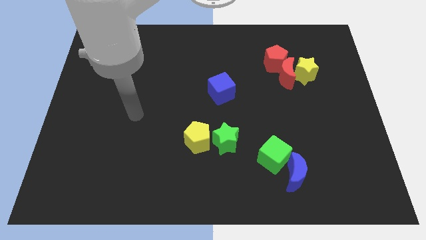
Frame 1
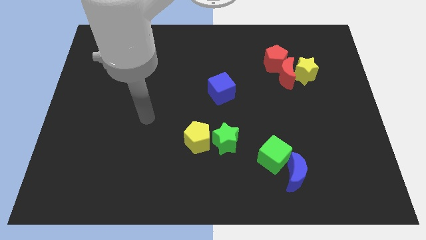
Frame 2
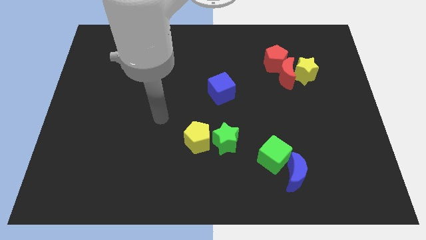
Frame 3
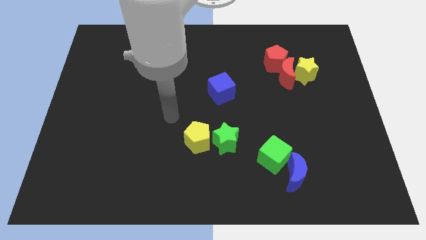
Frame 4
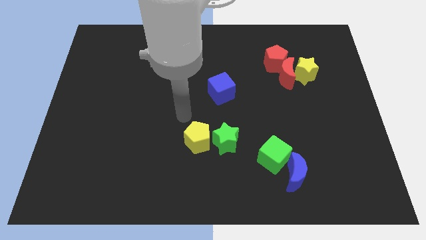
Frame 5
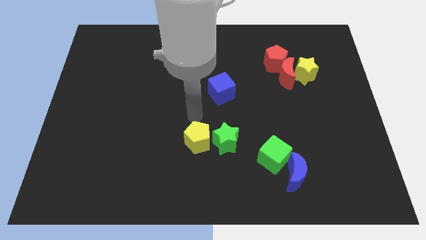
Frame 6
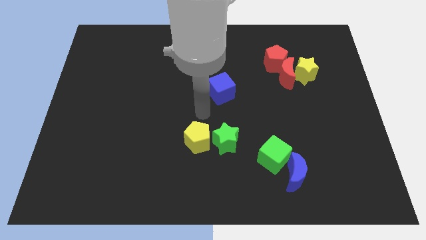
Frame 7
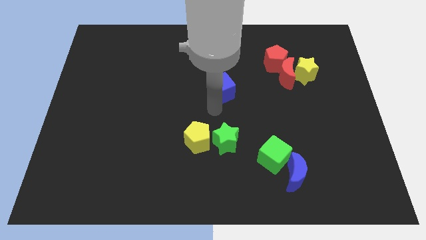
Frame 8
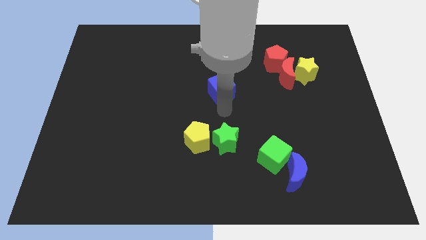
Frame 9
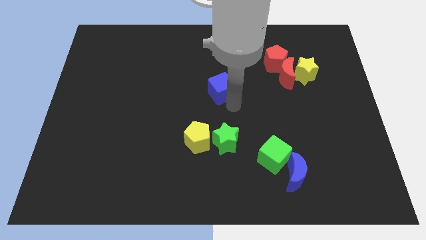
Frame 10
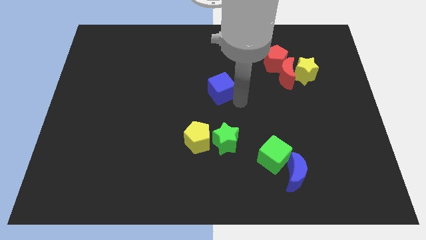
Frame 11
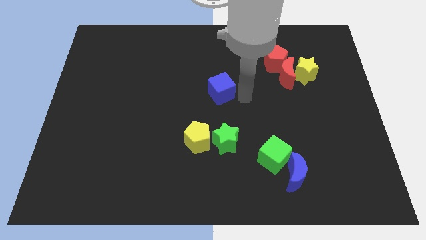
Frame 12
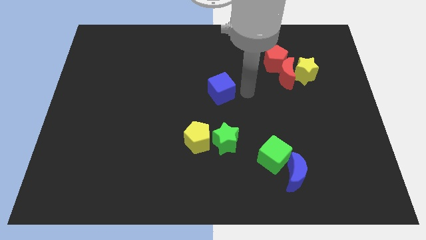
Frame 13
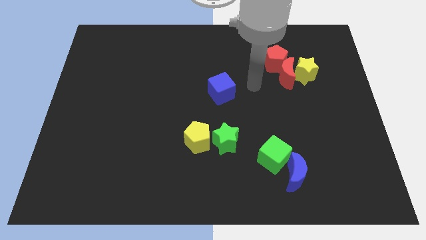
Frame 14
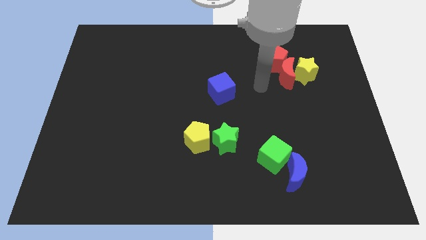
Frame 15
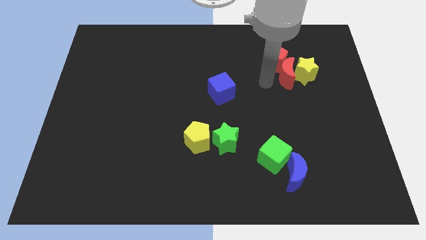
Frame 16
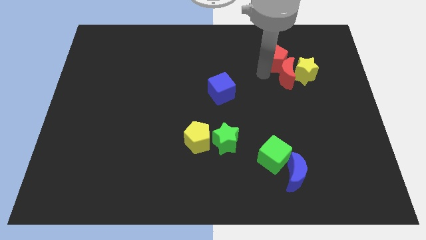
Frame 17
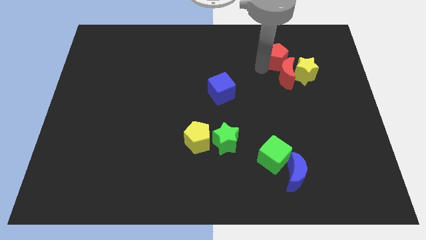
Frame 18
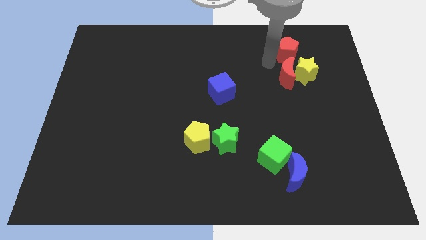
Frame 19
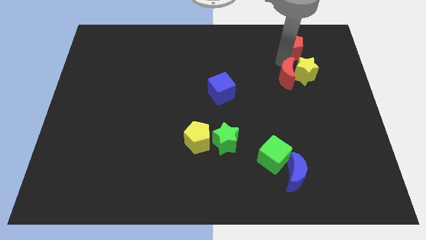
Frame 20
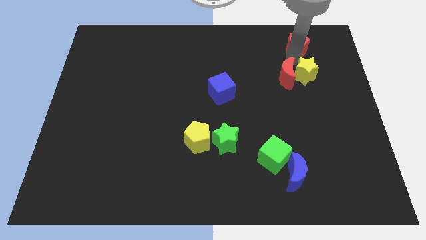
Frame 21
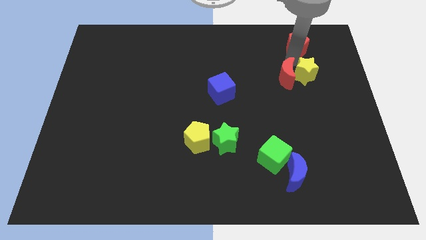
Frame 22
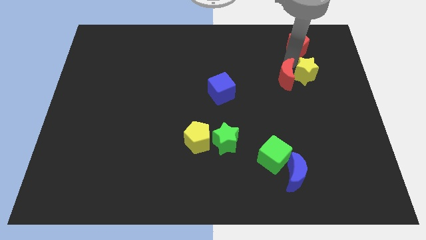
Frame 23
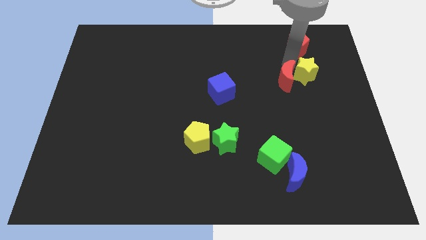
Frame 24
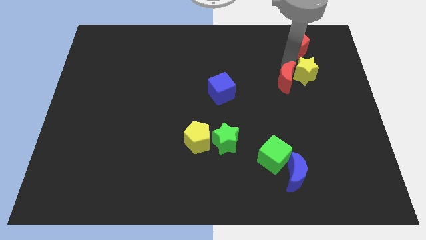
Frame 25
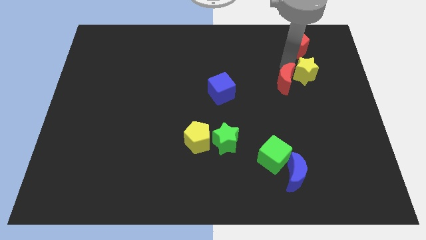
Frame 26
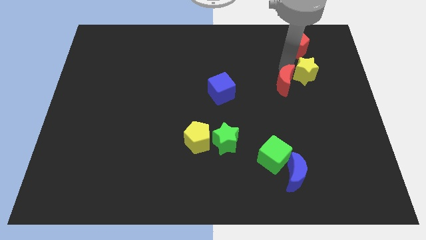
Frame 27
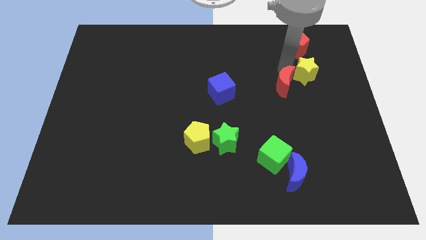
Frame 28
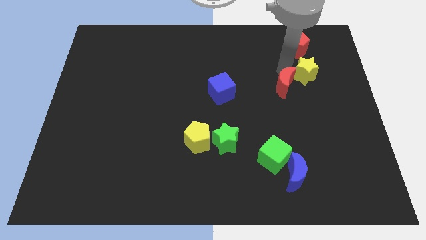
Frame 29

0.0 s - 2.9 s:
pull the red moon apart from the yellow star and red pentagon

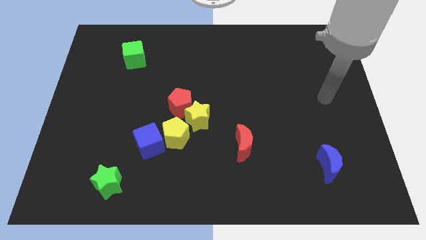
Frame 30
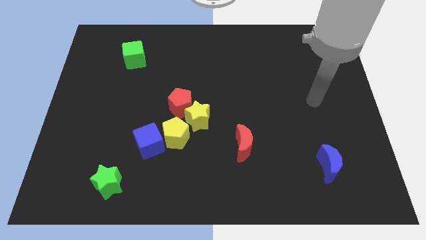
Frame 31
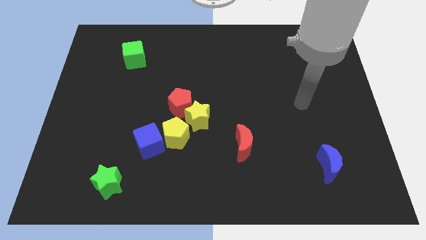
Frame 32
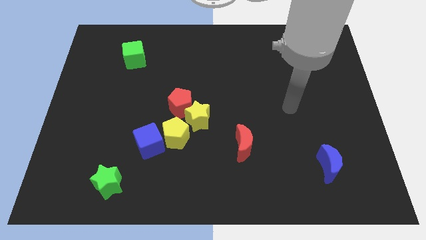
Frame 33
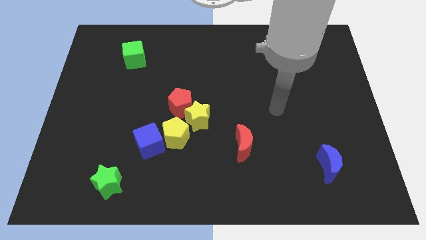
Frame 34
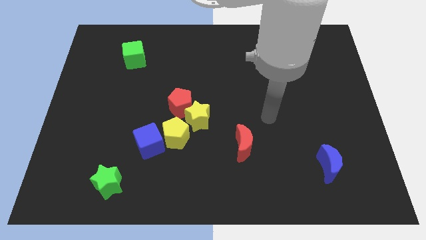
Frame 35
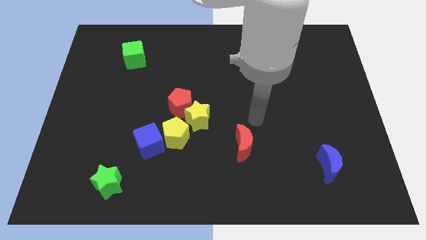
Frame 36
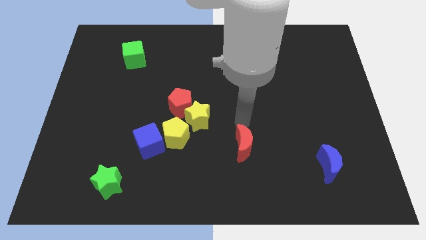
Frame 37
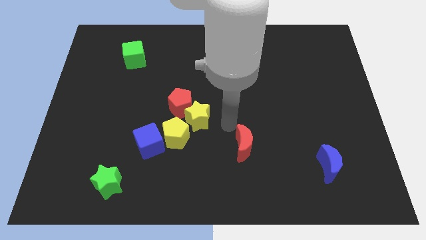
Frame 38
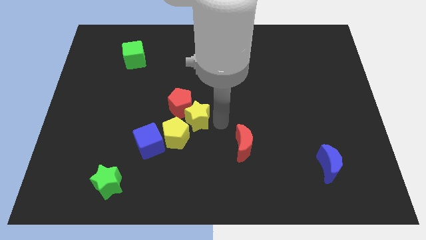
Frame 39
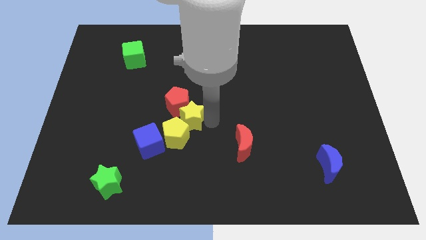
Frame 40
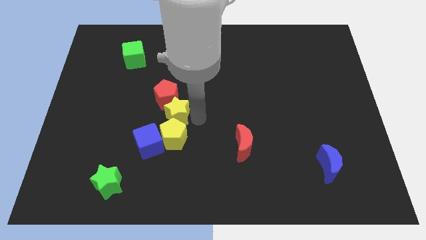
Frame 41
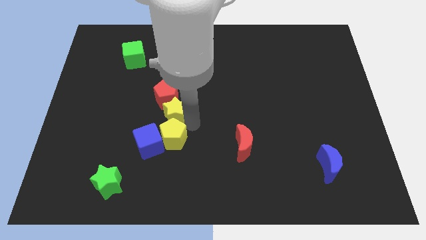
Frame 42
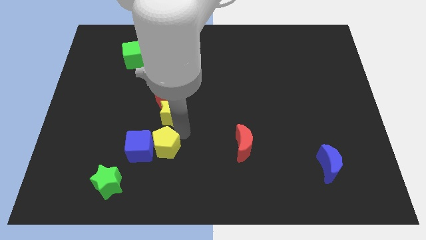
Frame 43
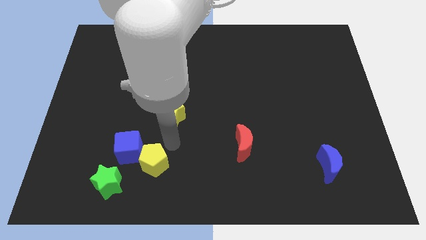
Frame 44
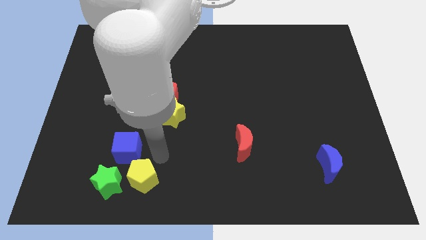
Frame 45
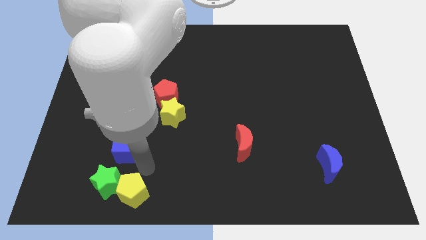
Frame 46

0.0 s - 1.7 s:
pull the blue cube apart from the yellow pentagon

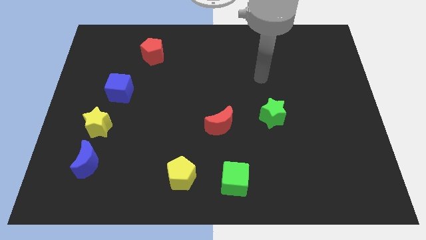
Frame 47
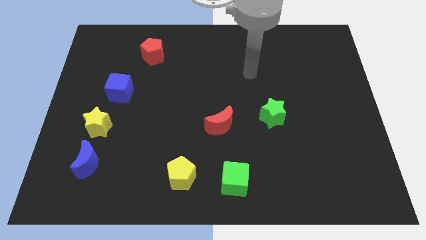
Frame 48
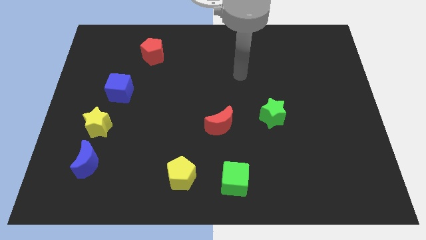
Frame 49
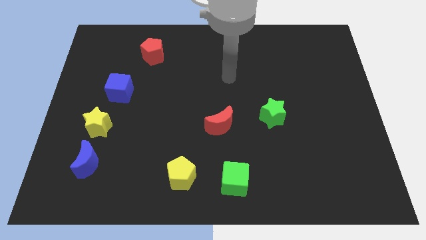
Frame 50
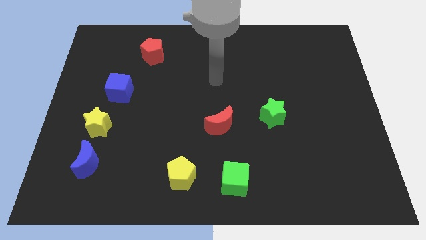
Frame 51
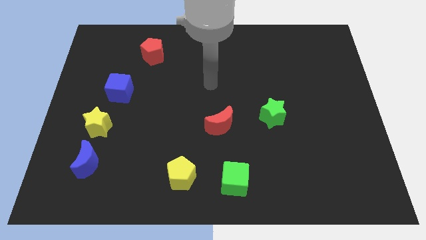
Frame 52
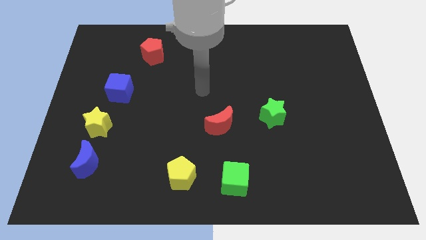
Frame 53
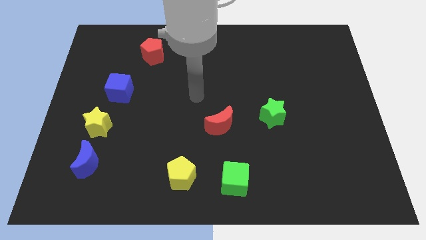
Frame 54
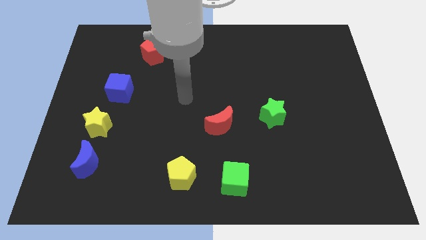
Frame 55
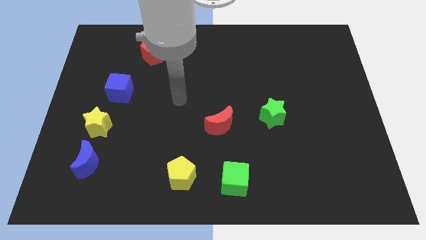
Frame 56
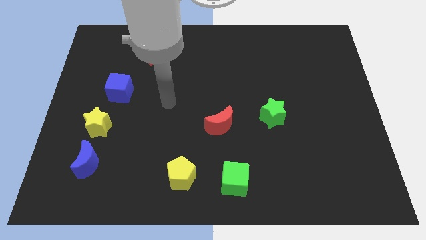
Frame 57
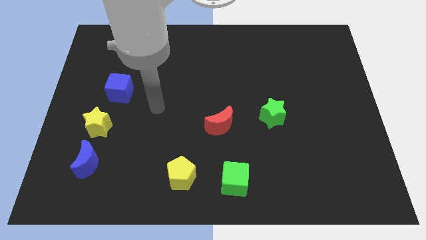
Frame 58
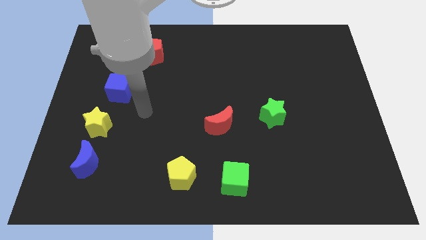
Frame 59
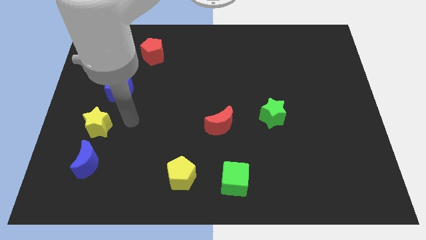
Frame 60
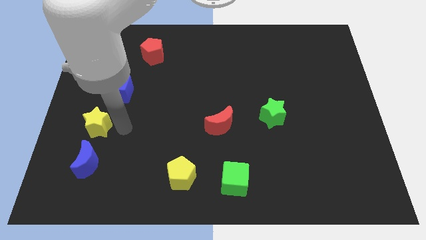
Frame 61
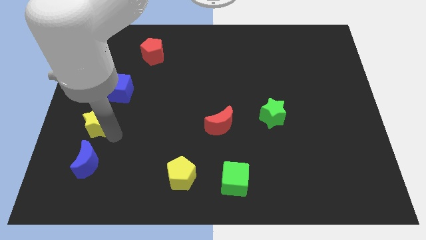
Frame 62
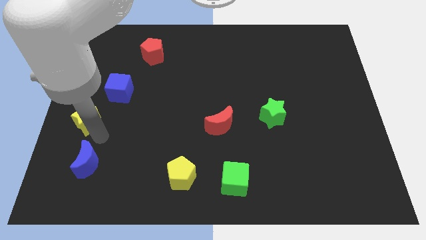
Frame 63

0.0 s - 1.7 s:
pull the blue moon apart from the yellow star

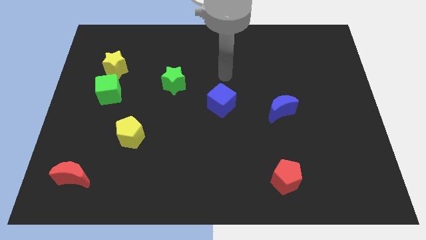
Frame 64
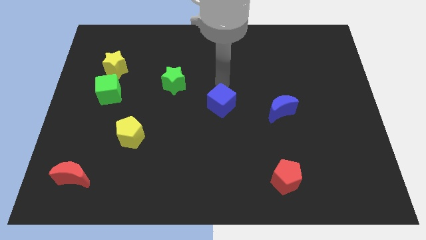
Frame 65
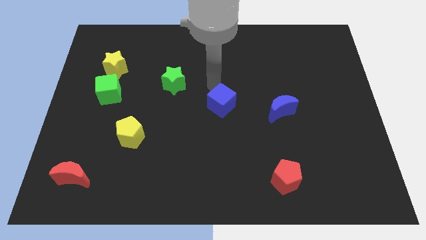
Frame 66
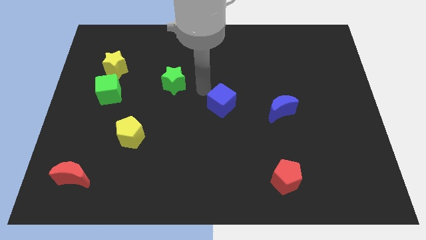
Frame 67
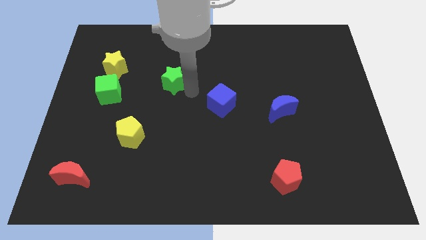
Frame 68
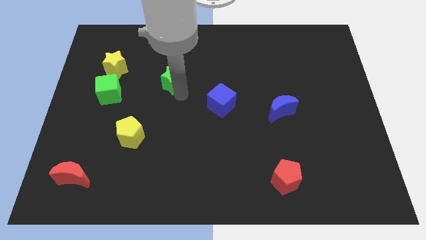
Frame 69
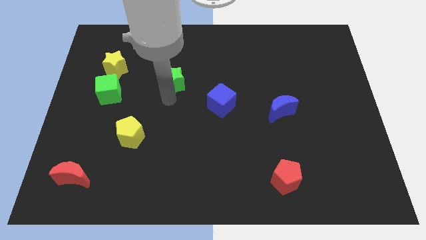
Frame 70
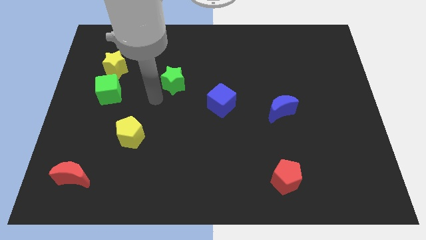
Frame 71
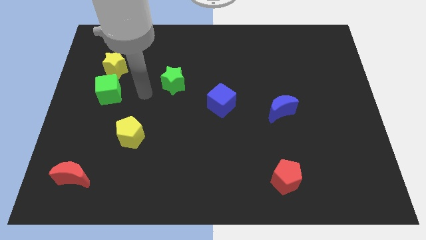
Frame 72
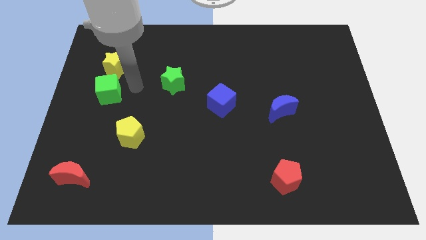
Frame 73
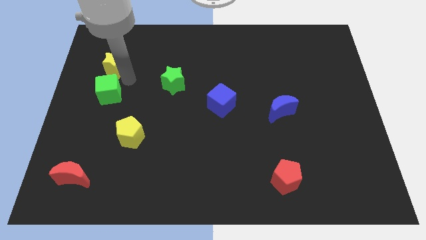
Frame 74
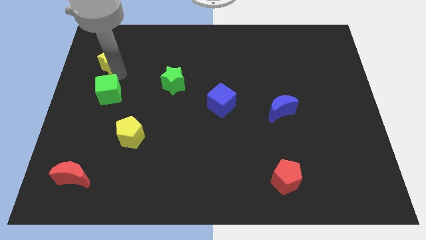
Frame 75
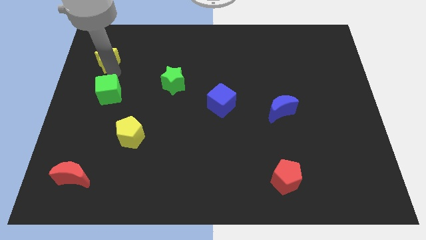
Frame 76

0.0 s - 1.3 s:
move the green cube away from the yellow star

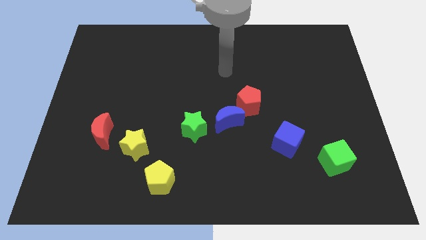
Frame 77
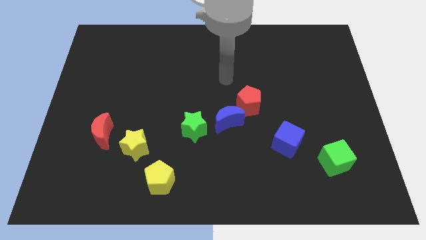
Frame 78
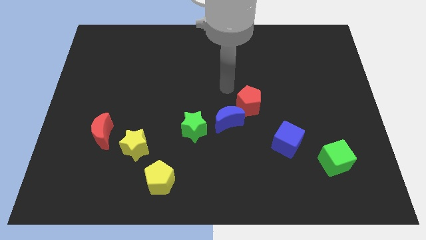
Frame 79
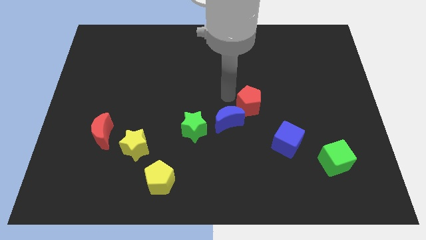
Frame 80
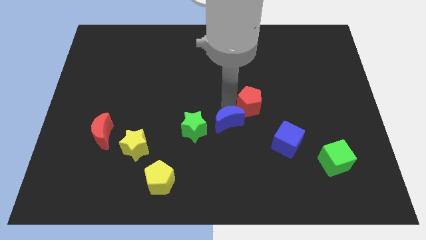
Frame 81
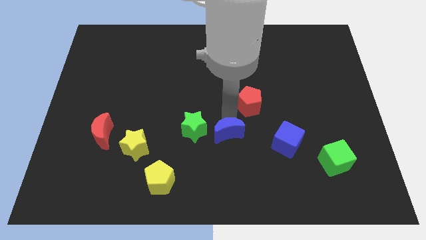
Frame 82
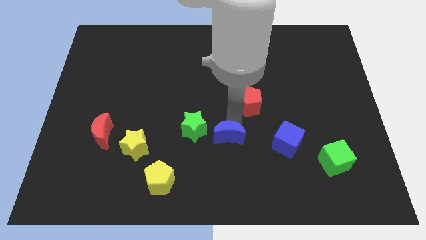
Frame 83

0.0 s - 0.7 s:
move the red pentagon away from the blue moon

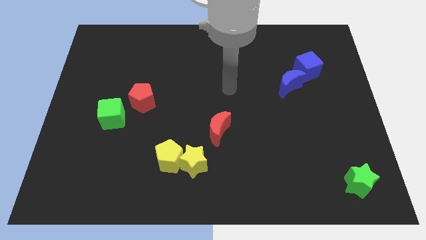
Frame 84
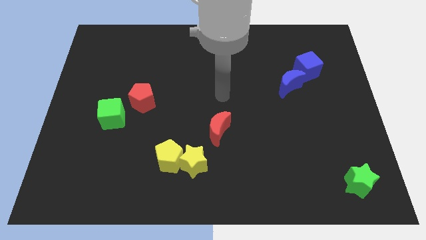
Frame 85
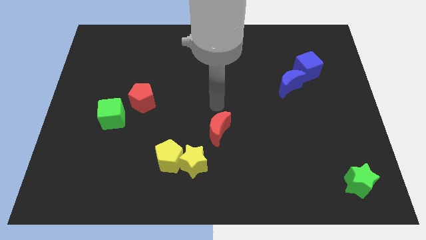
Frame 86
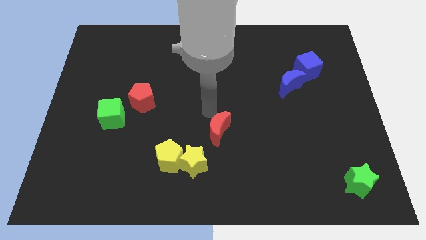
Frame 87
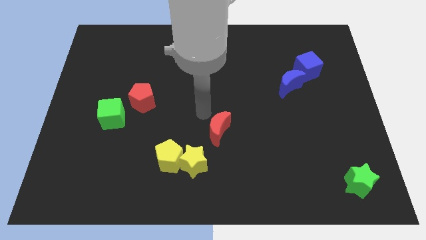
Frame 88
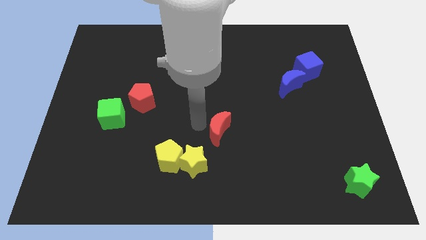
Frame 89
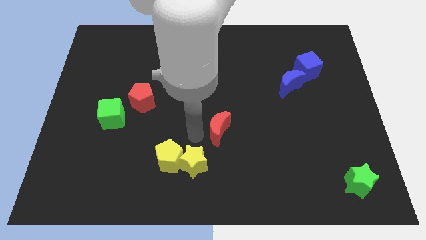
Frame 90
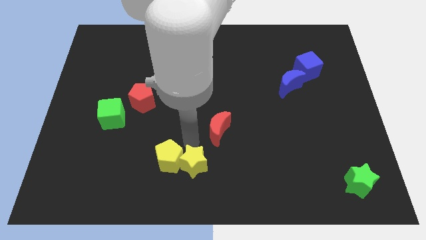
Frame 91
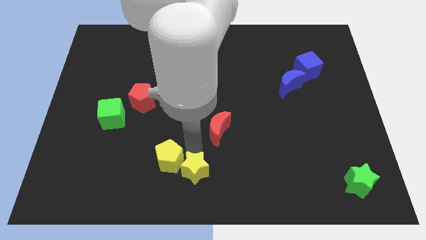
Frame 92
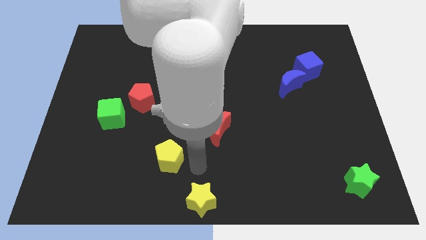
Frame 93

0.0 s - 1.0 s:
separate the yellow pentagon from the yellow star
